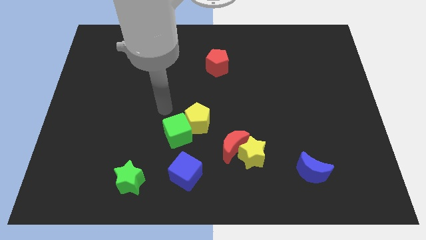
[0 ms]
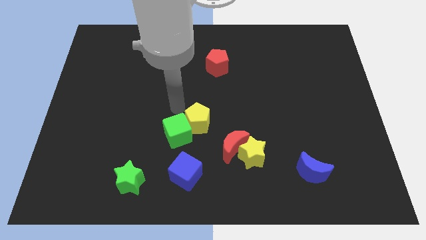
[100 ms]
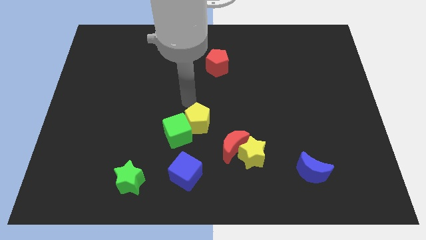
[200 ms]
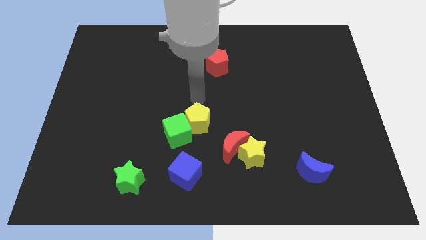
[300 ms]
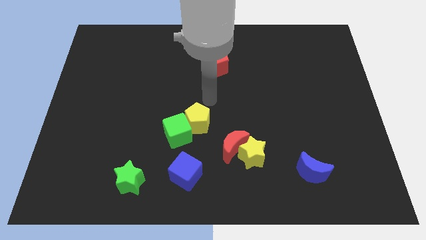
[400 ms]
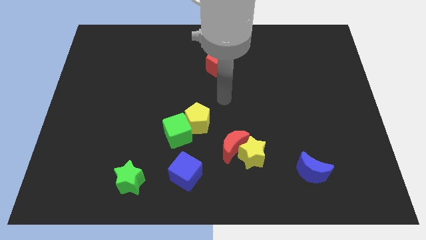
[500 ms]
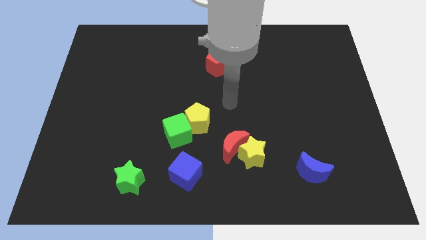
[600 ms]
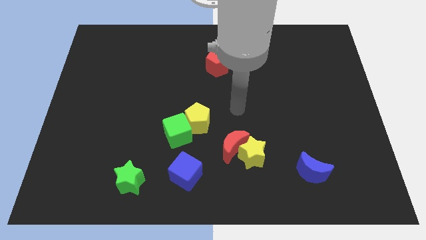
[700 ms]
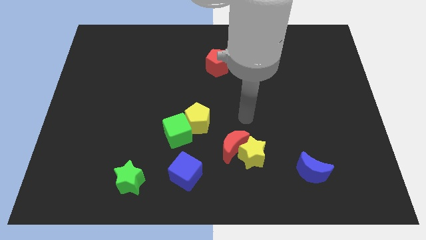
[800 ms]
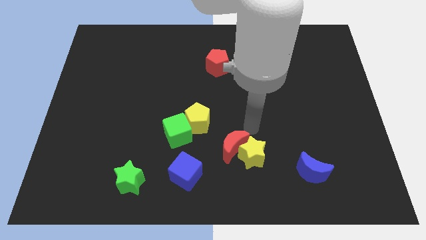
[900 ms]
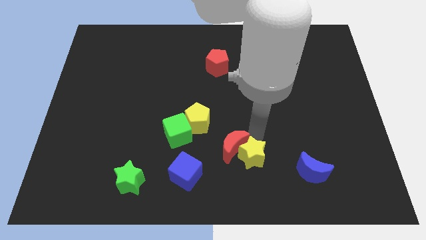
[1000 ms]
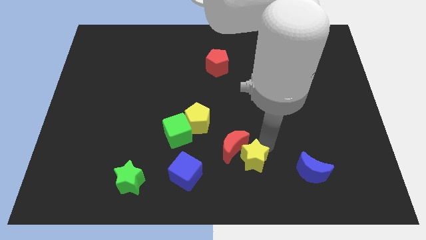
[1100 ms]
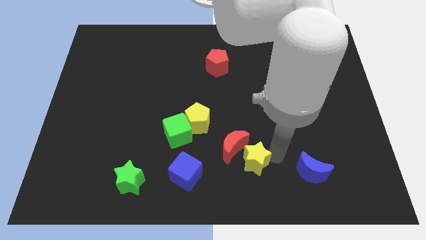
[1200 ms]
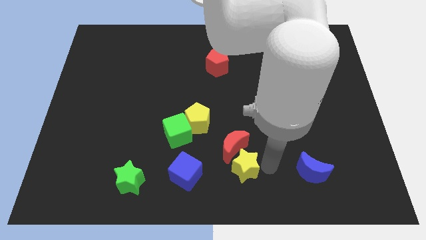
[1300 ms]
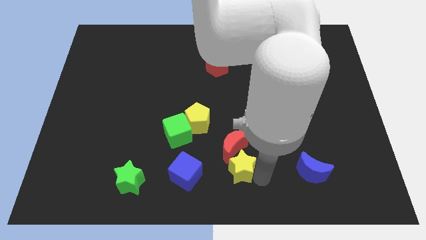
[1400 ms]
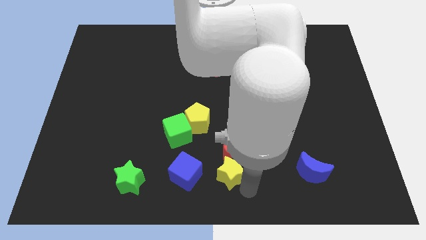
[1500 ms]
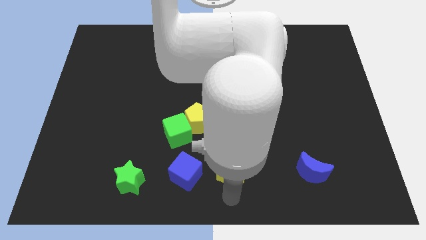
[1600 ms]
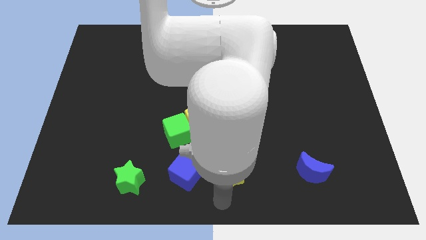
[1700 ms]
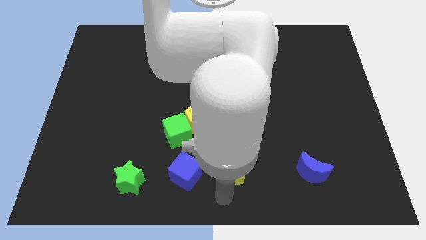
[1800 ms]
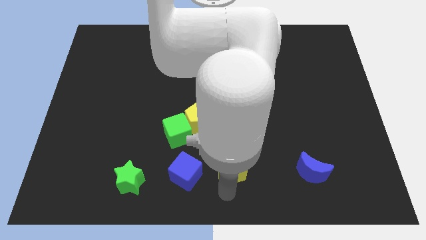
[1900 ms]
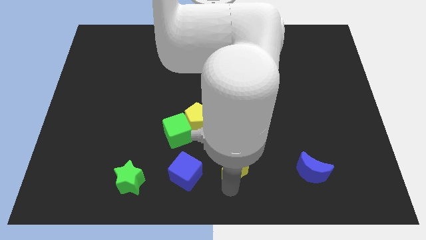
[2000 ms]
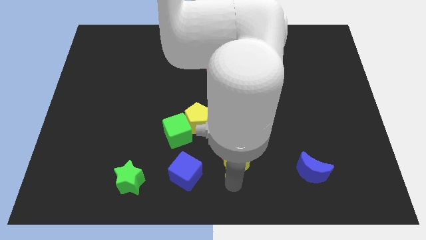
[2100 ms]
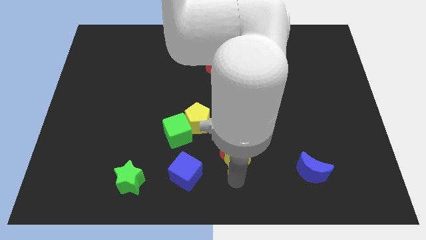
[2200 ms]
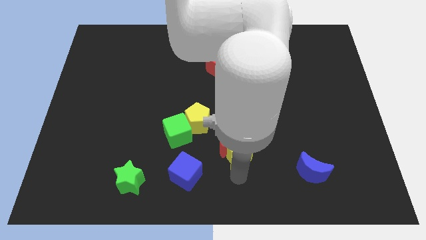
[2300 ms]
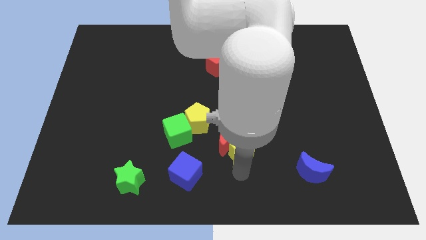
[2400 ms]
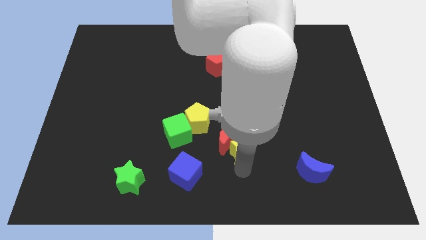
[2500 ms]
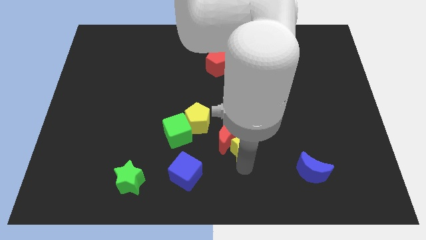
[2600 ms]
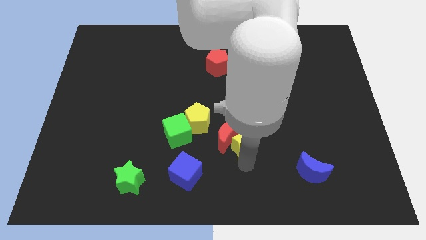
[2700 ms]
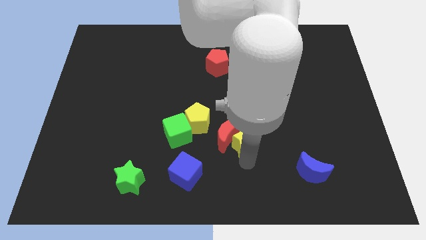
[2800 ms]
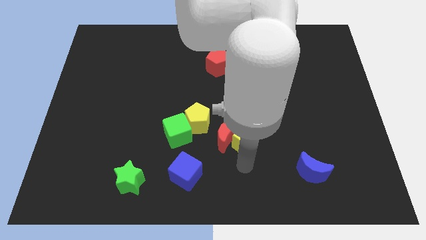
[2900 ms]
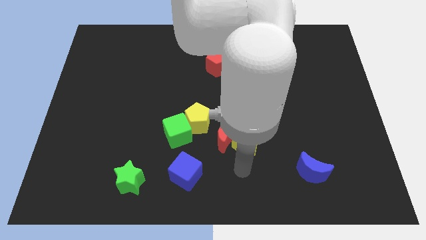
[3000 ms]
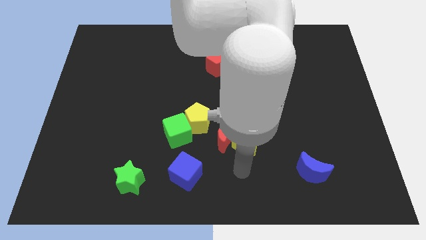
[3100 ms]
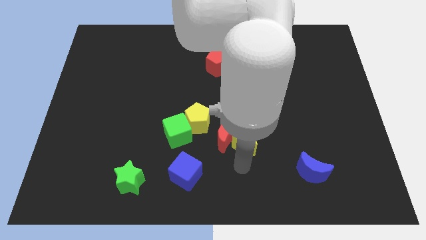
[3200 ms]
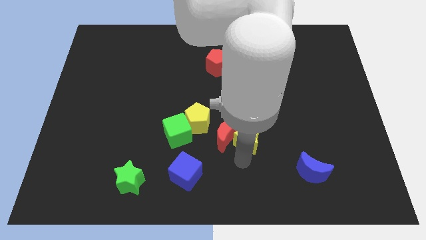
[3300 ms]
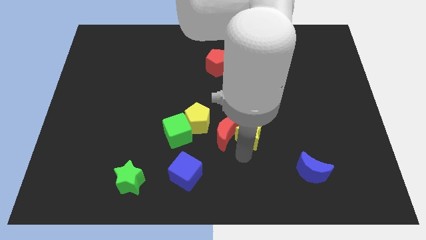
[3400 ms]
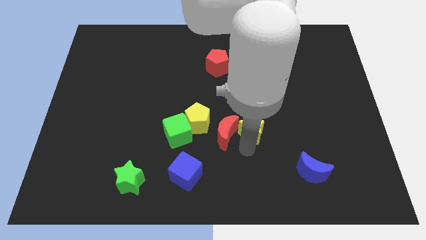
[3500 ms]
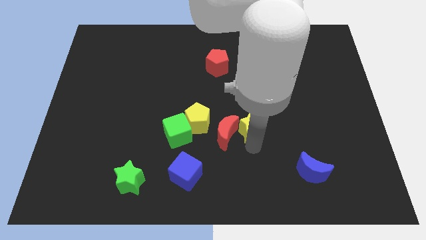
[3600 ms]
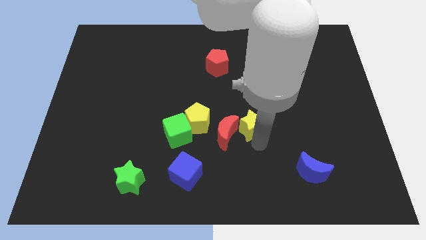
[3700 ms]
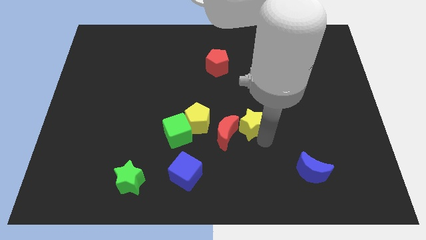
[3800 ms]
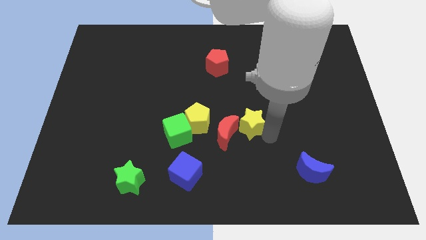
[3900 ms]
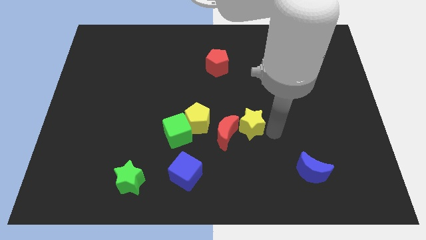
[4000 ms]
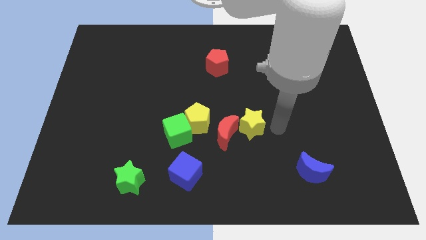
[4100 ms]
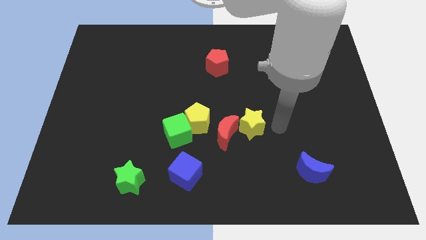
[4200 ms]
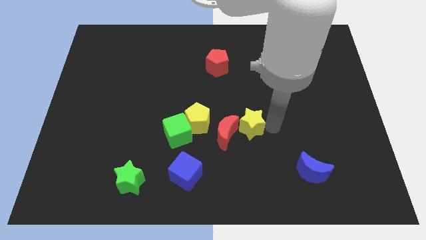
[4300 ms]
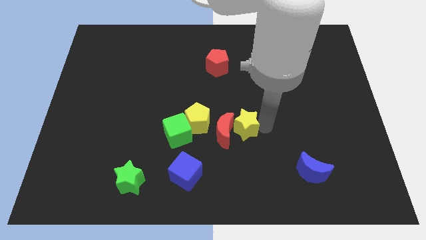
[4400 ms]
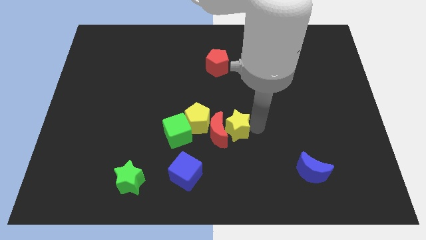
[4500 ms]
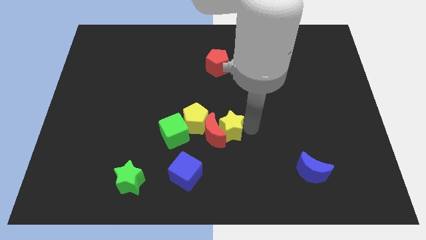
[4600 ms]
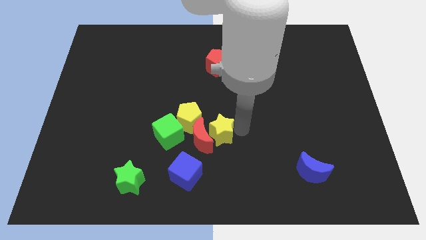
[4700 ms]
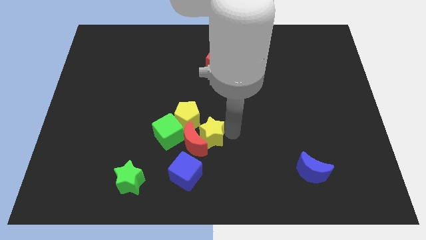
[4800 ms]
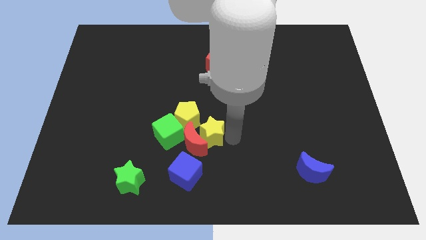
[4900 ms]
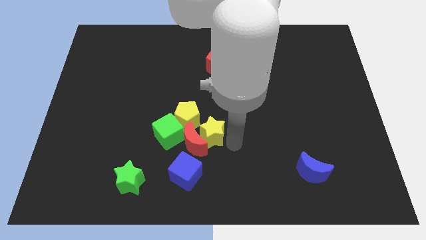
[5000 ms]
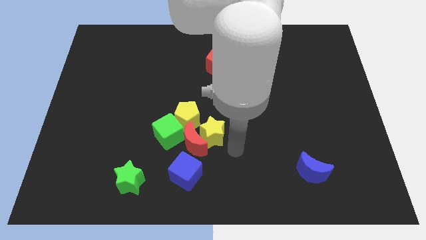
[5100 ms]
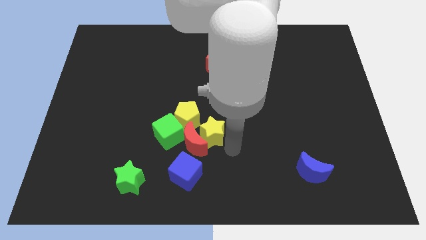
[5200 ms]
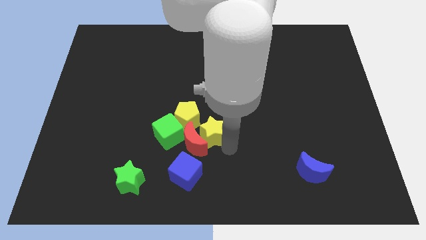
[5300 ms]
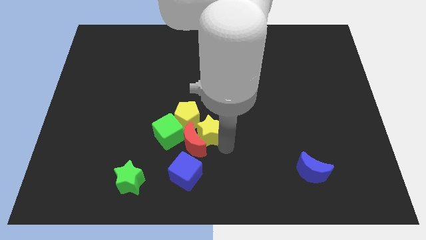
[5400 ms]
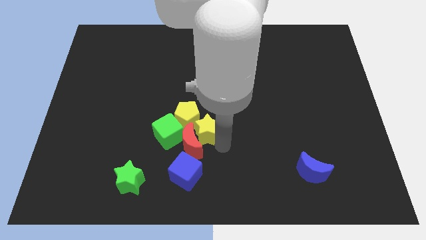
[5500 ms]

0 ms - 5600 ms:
slide the yellow star close to the yellow pentagon

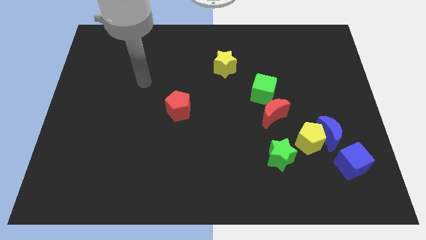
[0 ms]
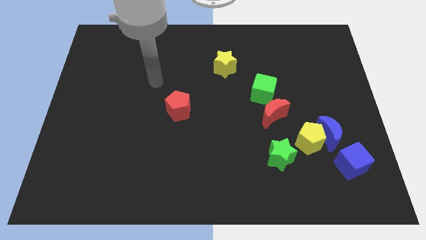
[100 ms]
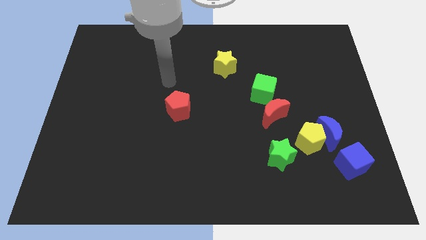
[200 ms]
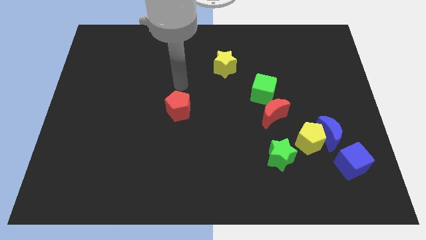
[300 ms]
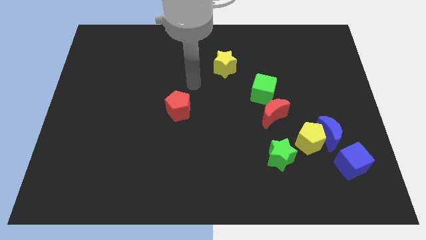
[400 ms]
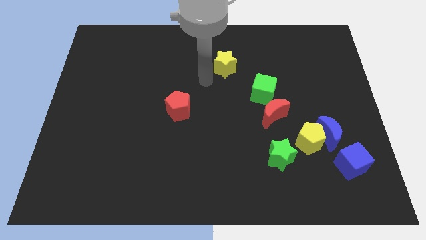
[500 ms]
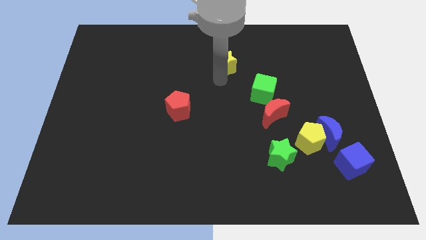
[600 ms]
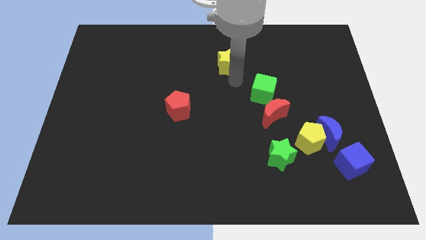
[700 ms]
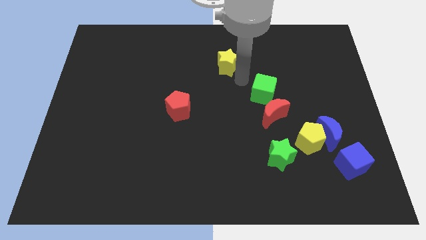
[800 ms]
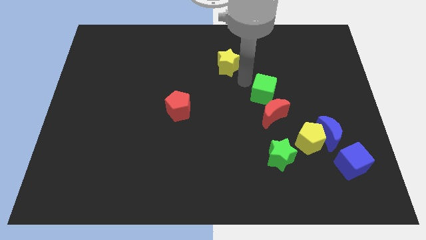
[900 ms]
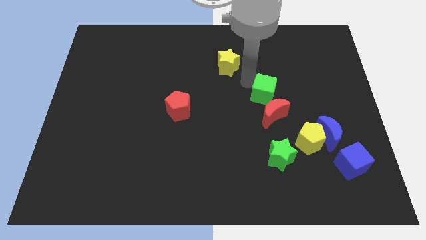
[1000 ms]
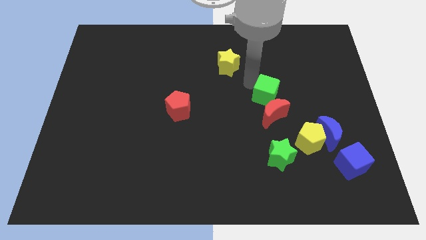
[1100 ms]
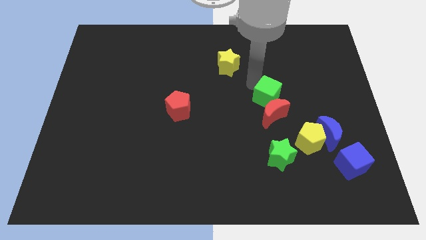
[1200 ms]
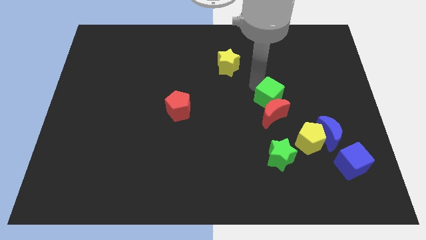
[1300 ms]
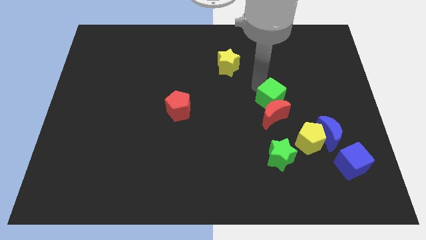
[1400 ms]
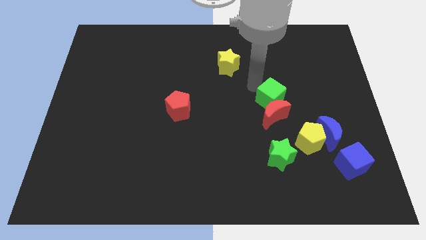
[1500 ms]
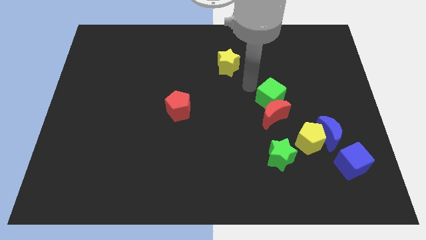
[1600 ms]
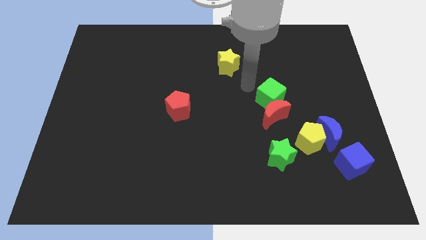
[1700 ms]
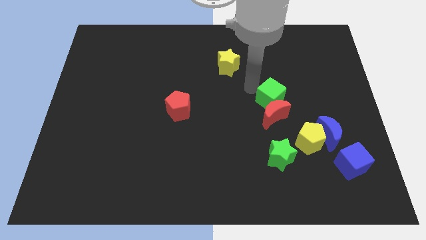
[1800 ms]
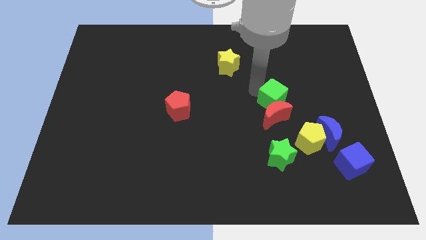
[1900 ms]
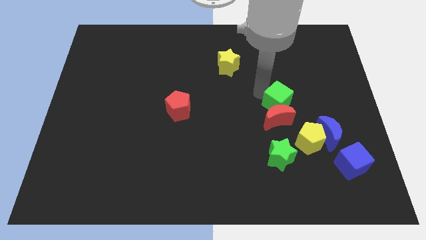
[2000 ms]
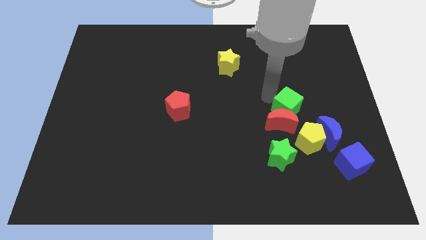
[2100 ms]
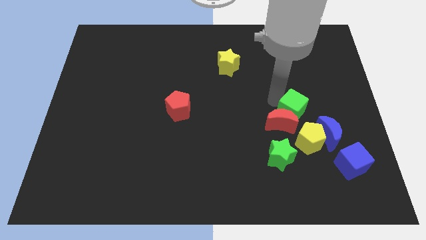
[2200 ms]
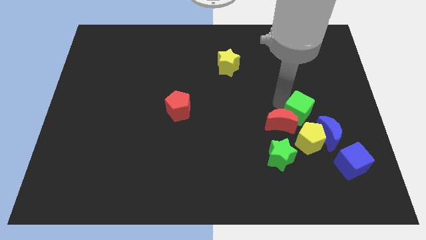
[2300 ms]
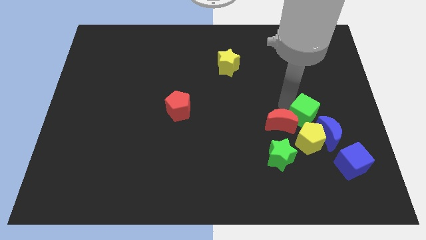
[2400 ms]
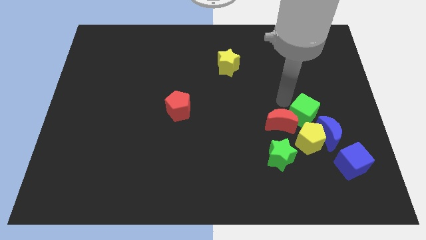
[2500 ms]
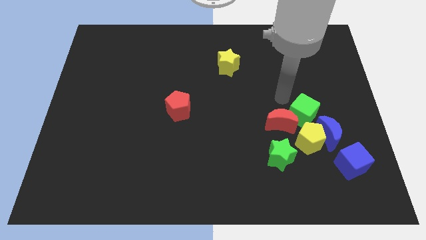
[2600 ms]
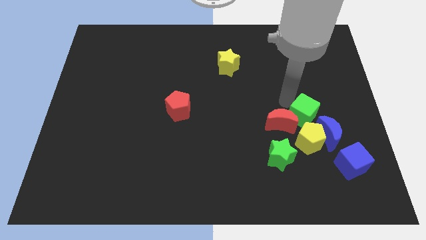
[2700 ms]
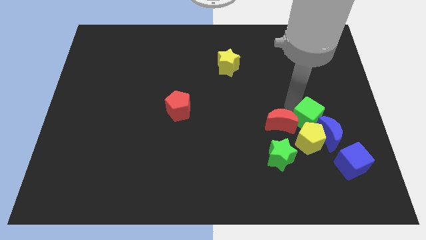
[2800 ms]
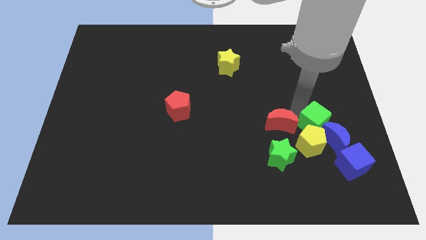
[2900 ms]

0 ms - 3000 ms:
move the green cube towards the blue moon
